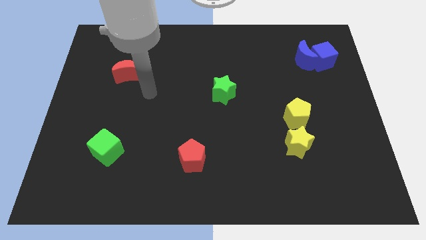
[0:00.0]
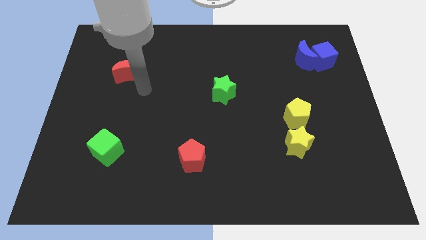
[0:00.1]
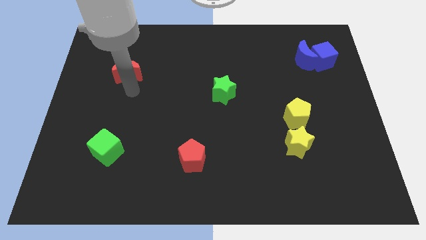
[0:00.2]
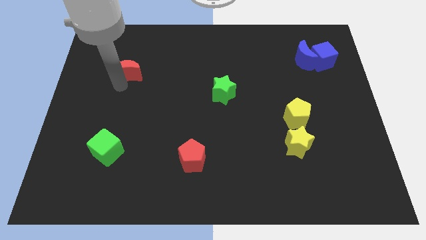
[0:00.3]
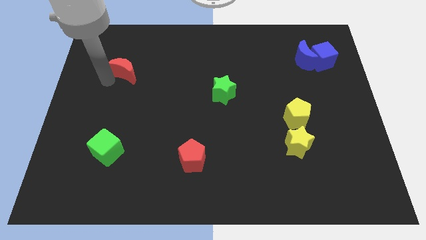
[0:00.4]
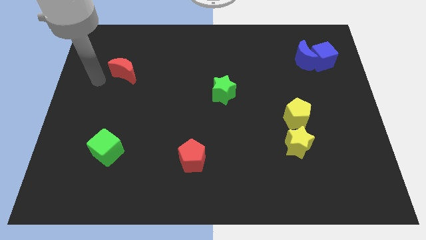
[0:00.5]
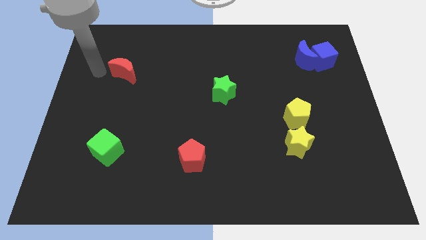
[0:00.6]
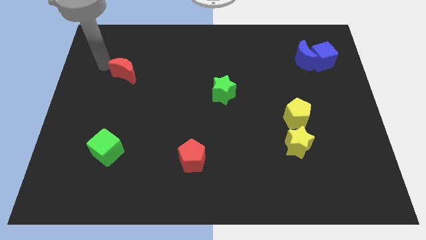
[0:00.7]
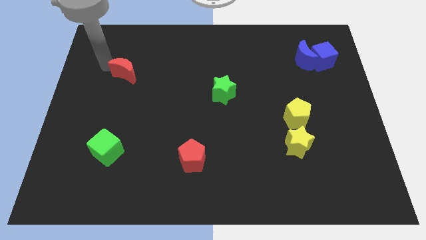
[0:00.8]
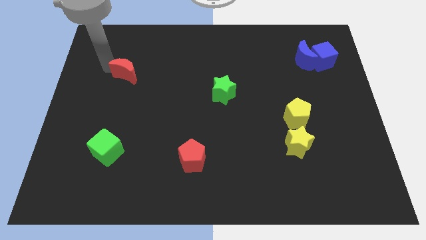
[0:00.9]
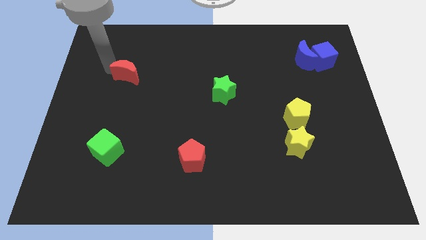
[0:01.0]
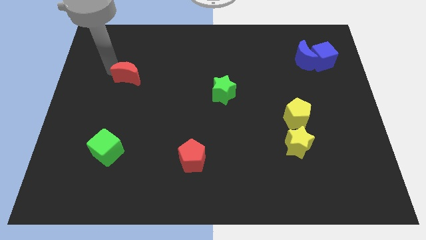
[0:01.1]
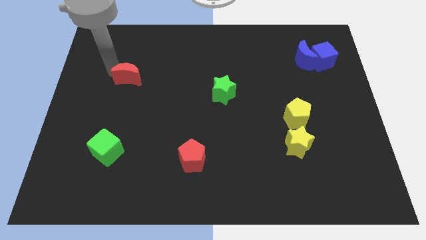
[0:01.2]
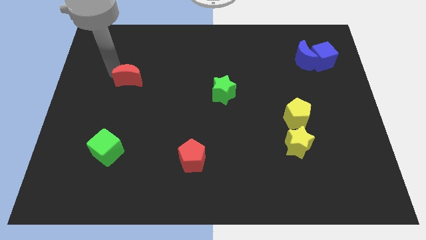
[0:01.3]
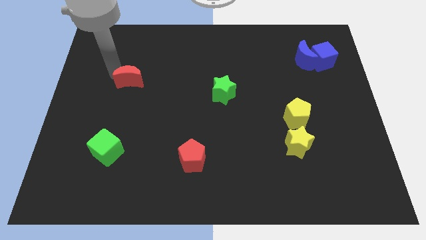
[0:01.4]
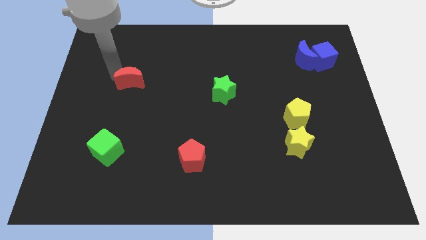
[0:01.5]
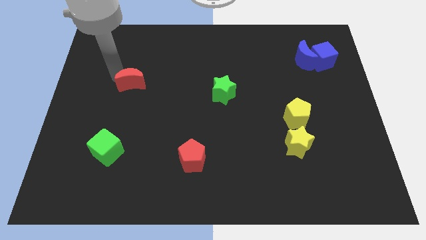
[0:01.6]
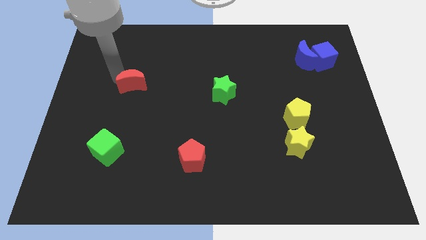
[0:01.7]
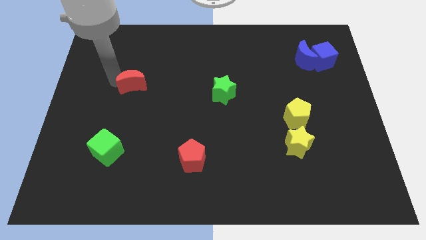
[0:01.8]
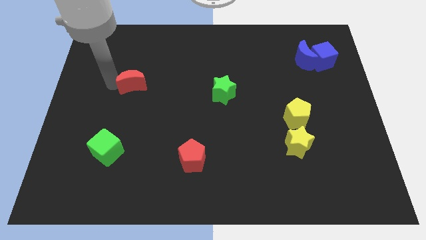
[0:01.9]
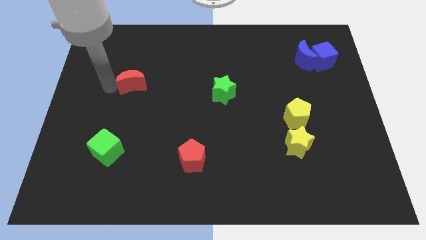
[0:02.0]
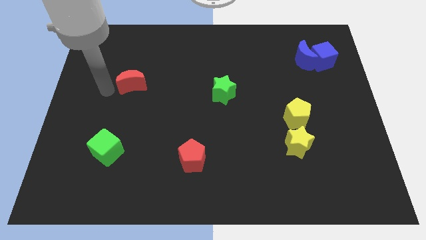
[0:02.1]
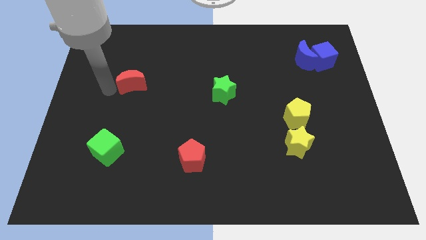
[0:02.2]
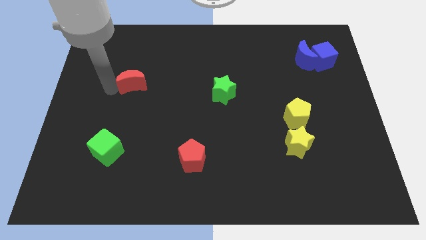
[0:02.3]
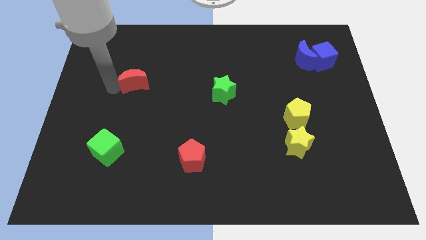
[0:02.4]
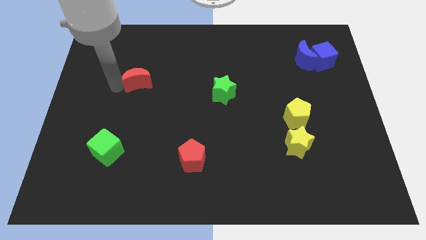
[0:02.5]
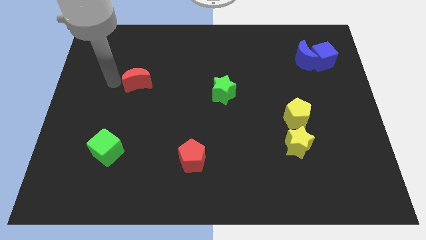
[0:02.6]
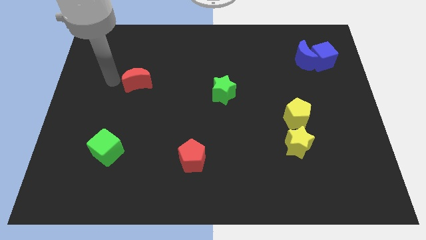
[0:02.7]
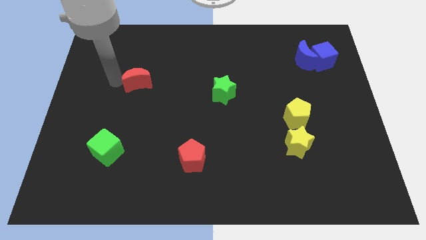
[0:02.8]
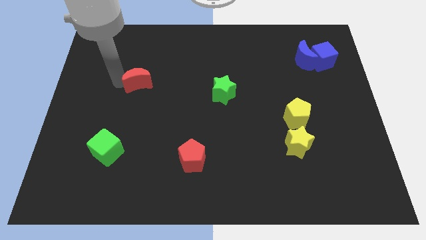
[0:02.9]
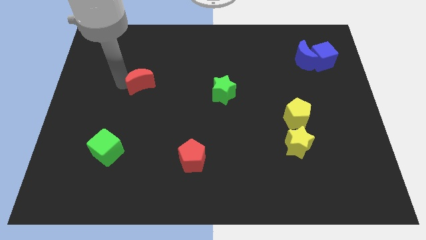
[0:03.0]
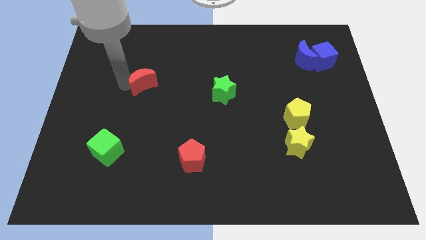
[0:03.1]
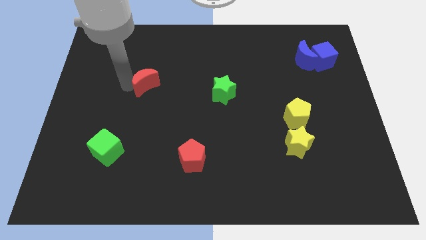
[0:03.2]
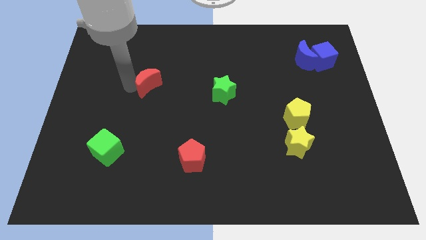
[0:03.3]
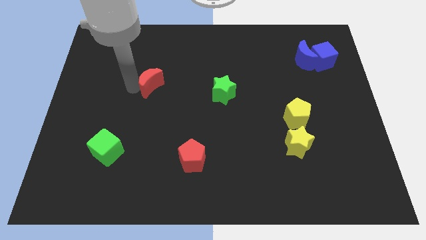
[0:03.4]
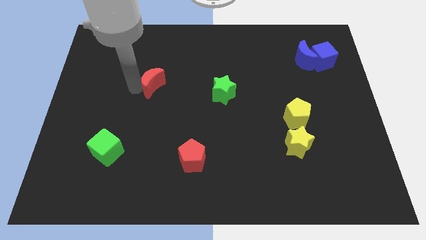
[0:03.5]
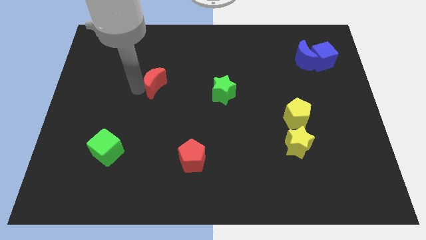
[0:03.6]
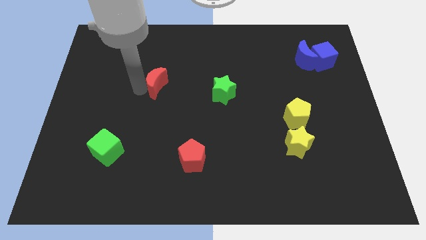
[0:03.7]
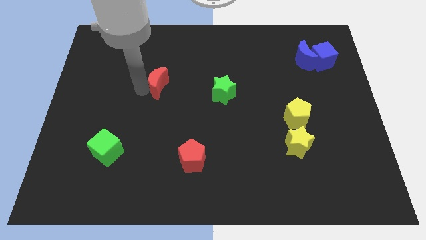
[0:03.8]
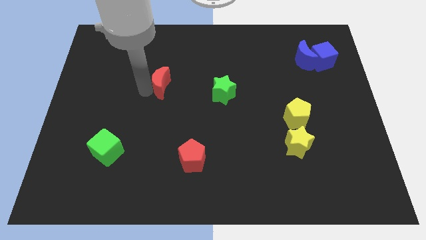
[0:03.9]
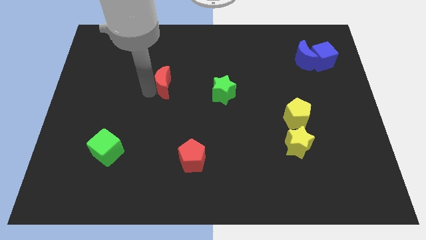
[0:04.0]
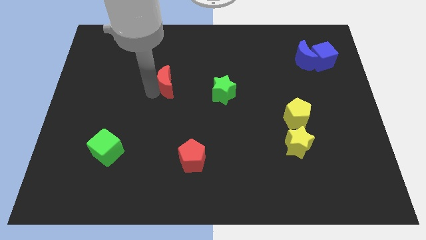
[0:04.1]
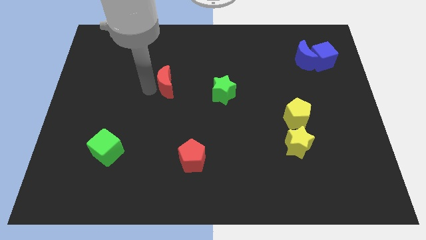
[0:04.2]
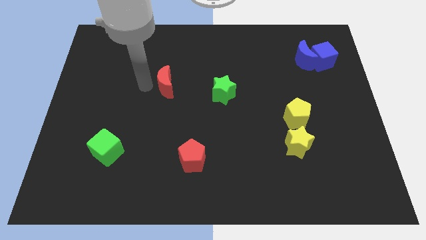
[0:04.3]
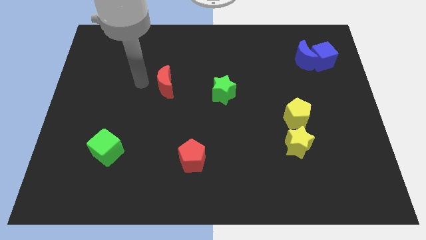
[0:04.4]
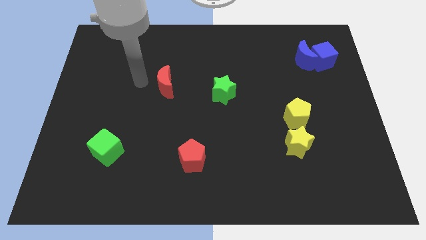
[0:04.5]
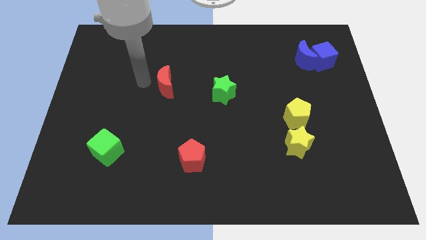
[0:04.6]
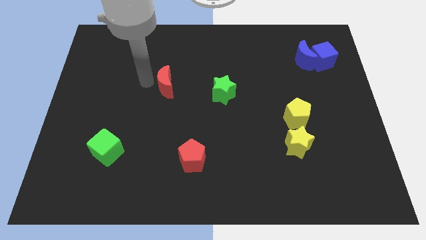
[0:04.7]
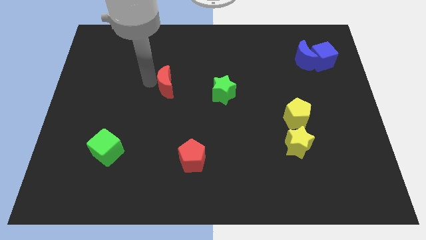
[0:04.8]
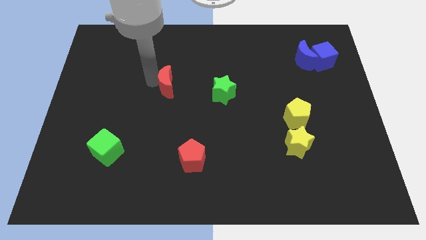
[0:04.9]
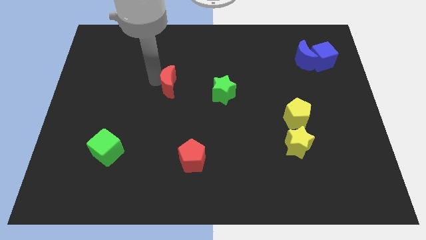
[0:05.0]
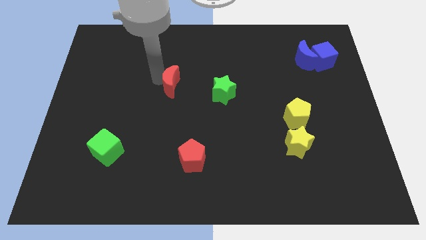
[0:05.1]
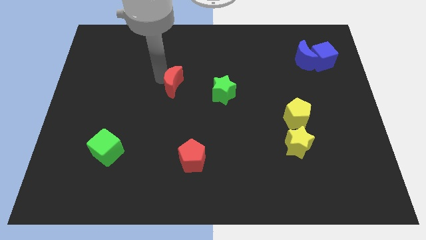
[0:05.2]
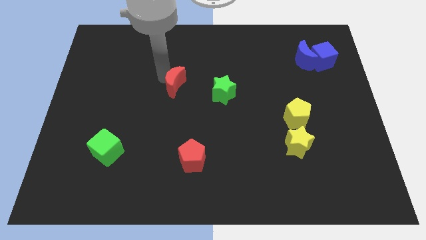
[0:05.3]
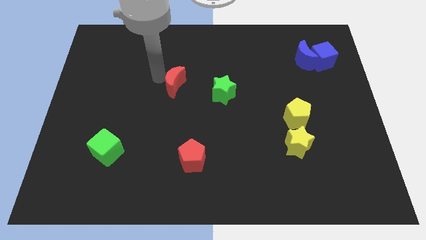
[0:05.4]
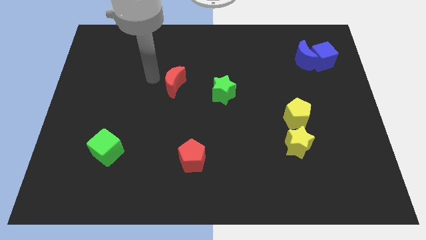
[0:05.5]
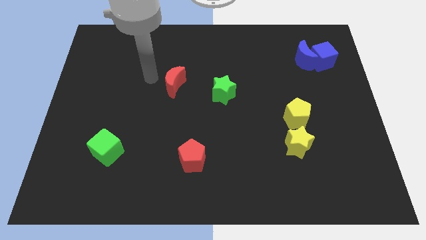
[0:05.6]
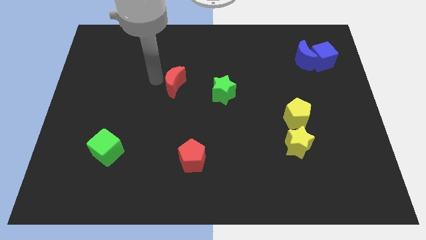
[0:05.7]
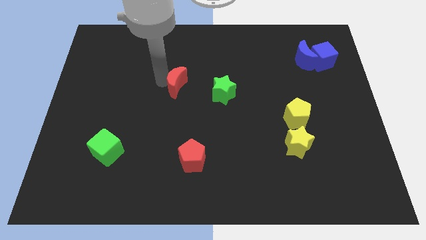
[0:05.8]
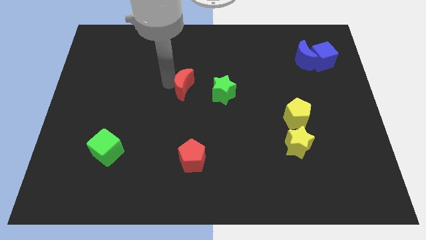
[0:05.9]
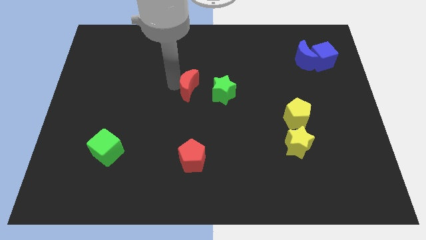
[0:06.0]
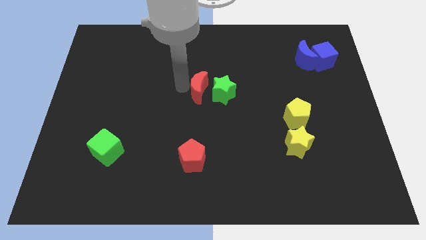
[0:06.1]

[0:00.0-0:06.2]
move the red moon next to the green star
